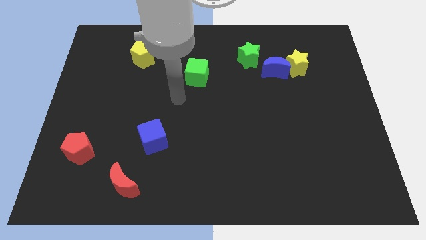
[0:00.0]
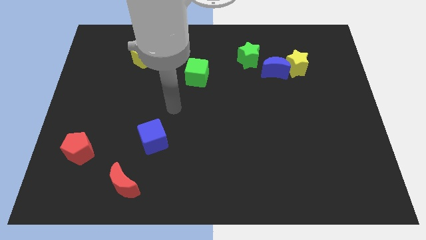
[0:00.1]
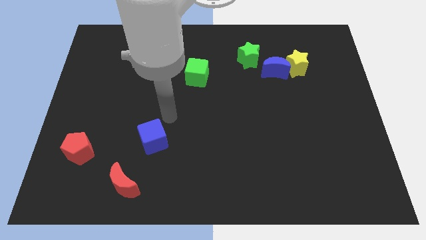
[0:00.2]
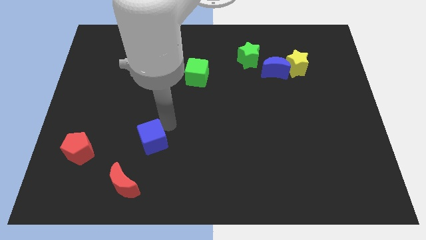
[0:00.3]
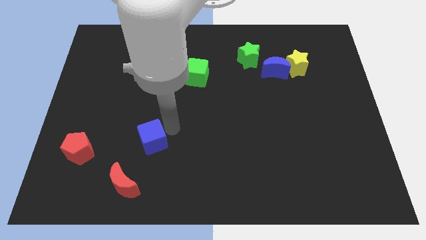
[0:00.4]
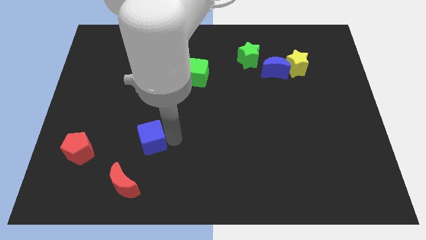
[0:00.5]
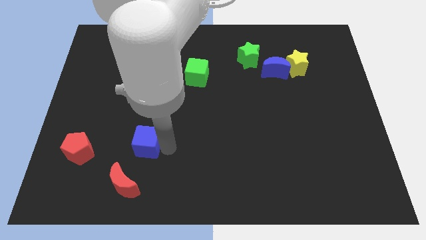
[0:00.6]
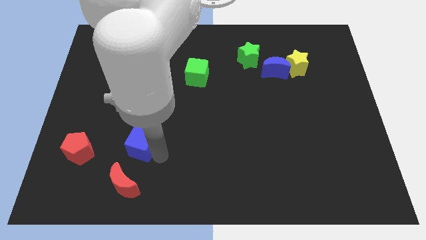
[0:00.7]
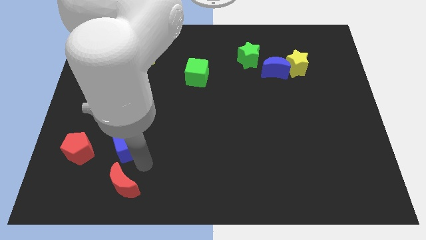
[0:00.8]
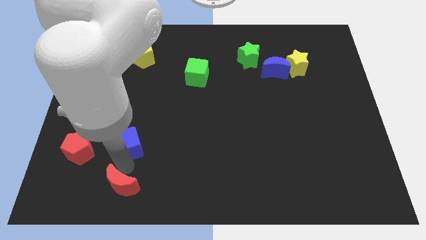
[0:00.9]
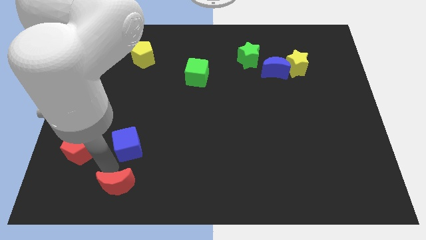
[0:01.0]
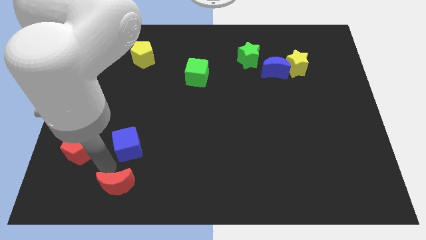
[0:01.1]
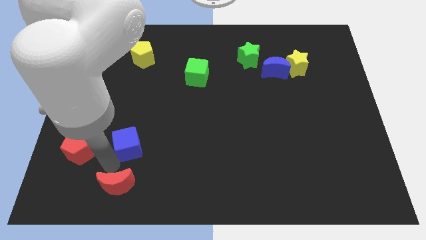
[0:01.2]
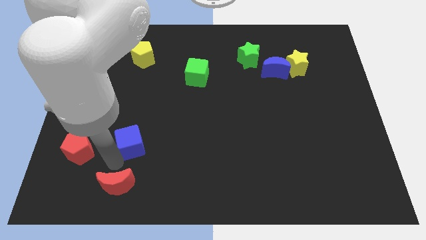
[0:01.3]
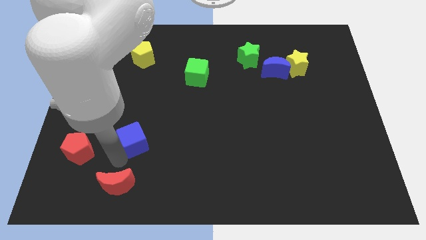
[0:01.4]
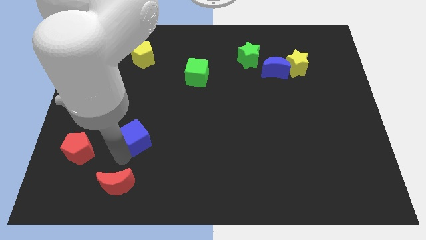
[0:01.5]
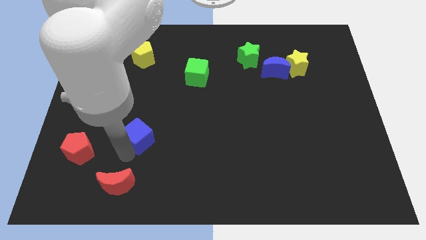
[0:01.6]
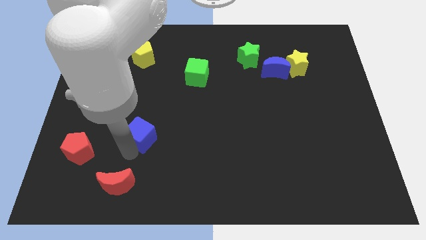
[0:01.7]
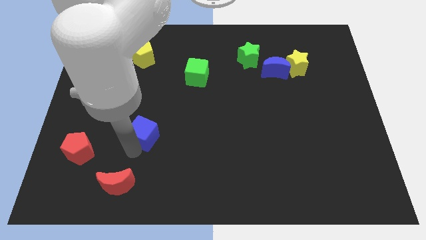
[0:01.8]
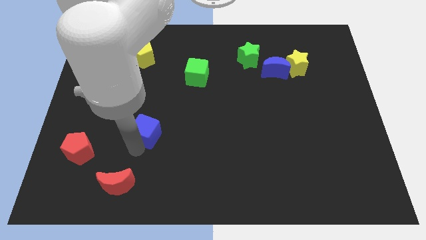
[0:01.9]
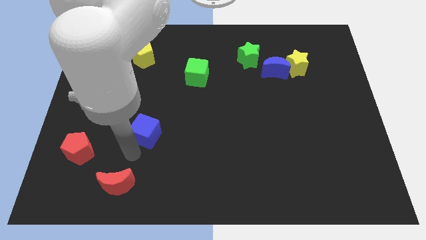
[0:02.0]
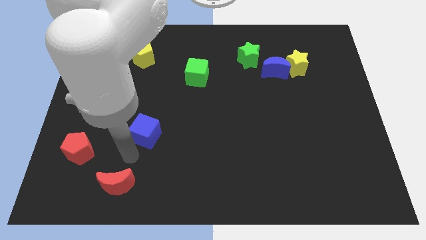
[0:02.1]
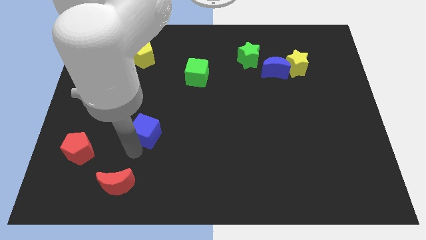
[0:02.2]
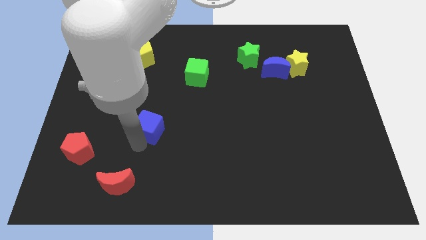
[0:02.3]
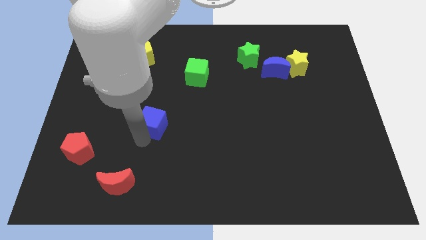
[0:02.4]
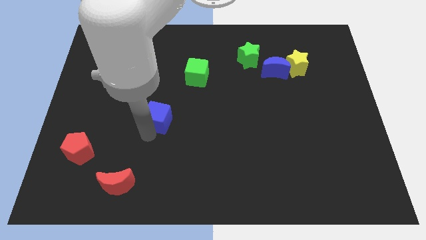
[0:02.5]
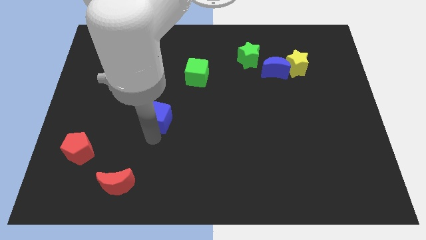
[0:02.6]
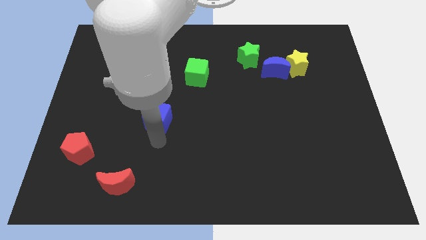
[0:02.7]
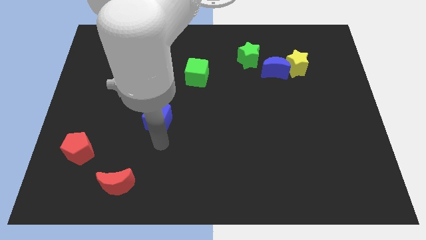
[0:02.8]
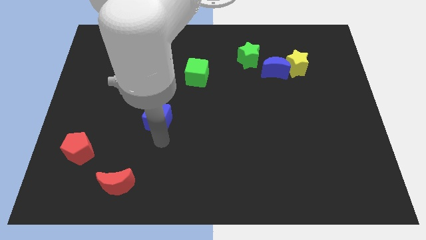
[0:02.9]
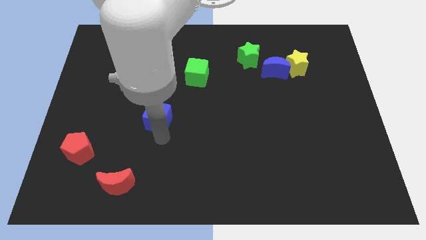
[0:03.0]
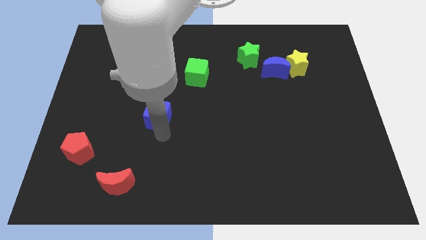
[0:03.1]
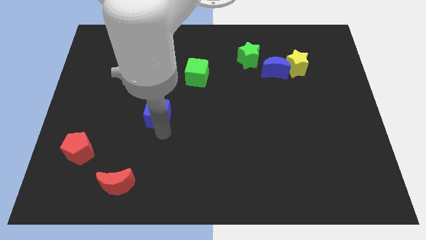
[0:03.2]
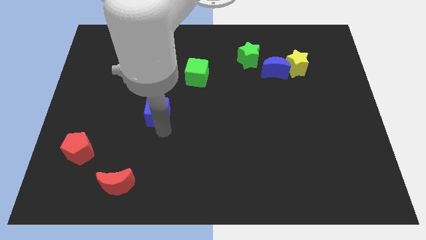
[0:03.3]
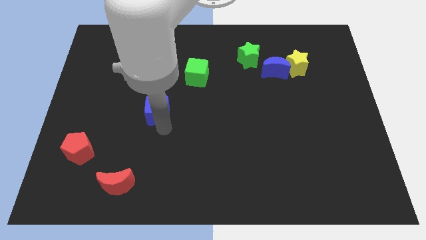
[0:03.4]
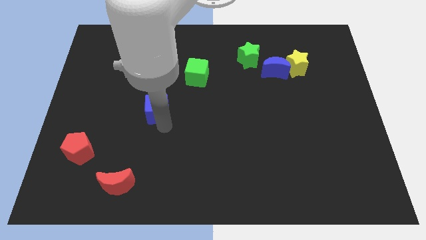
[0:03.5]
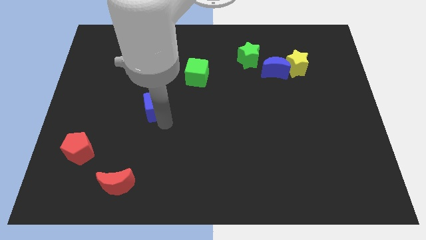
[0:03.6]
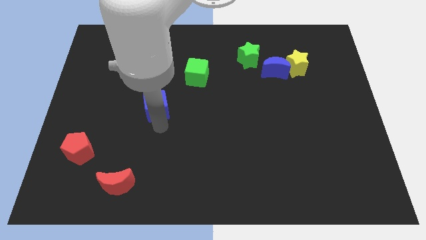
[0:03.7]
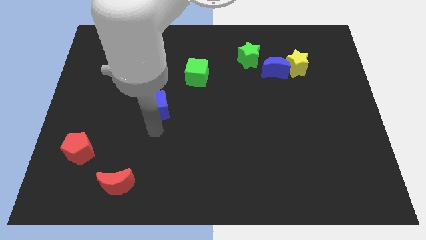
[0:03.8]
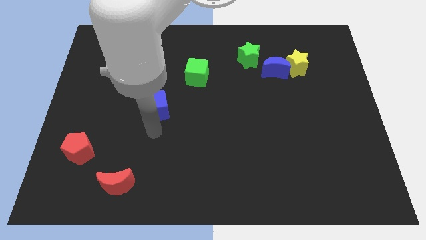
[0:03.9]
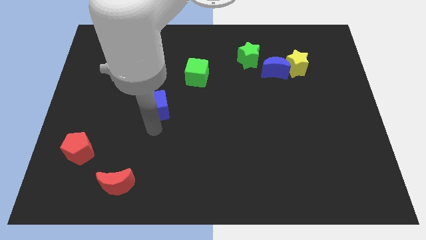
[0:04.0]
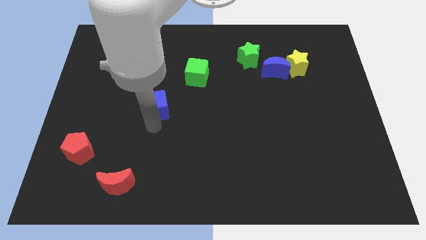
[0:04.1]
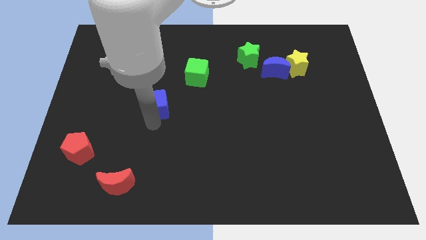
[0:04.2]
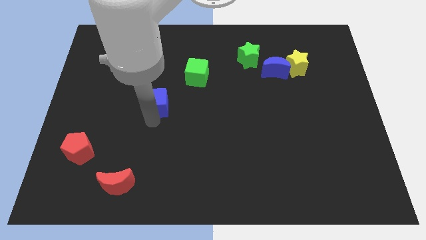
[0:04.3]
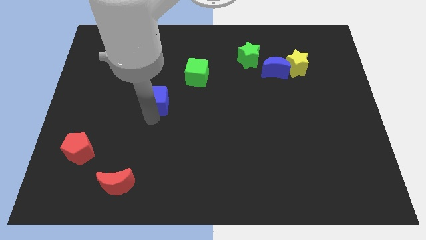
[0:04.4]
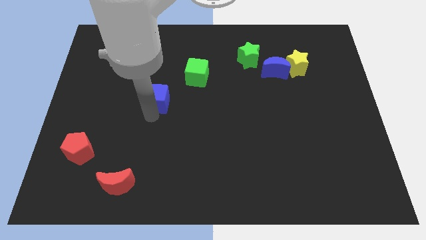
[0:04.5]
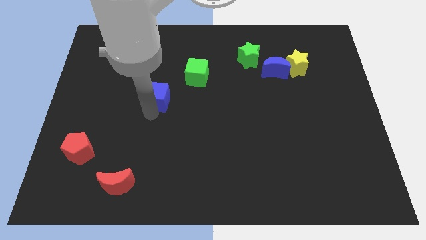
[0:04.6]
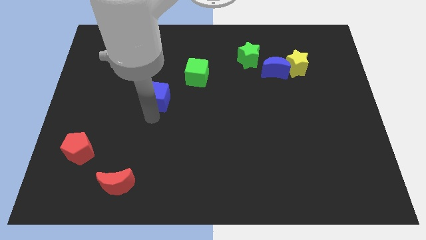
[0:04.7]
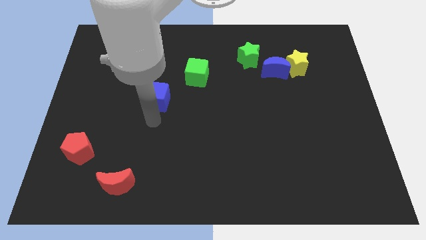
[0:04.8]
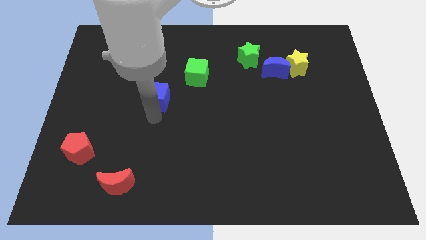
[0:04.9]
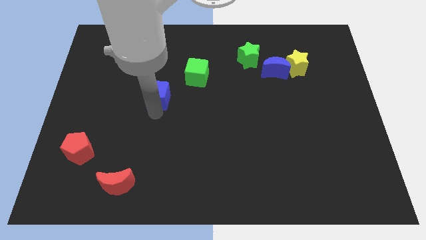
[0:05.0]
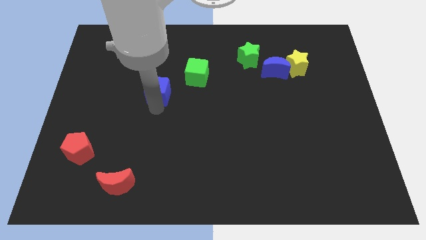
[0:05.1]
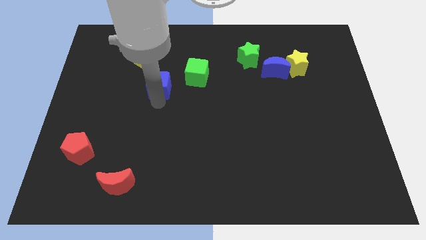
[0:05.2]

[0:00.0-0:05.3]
push the blue cube to the left of the green cube

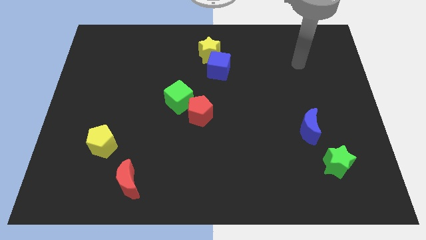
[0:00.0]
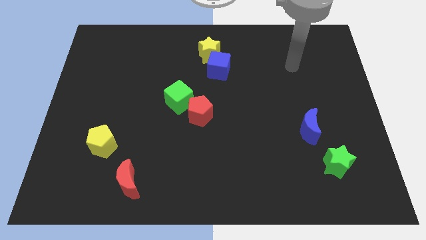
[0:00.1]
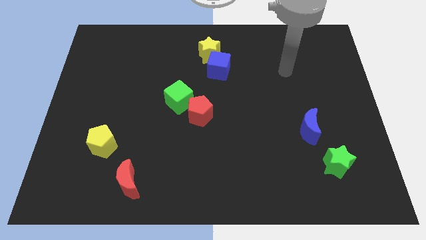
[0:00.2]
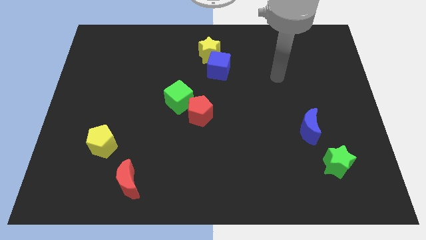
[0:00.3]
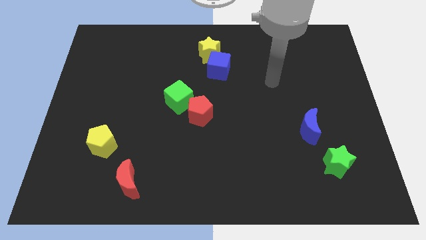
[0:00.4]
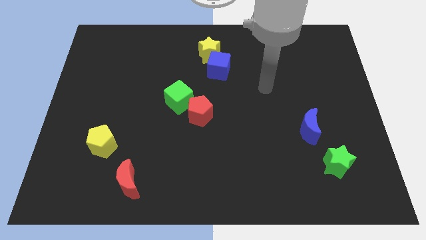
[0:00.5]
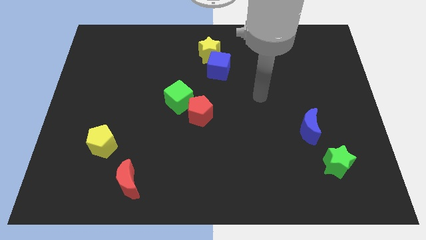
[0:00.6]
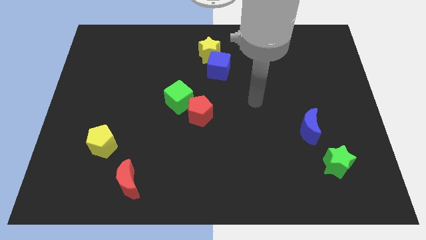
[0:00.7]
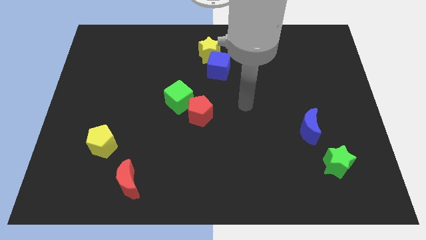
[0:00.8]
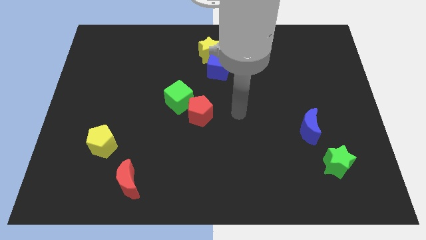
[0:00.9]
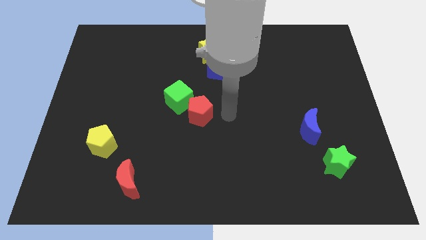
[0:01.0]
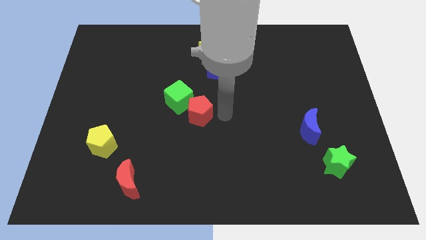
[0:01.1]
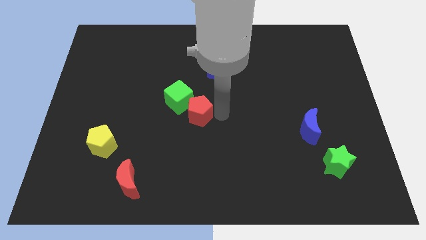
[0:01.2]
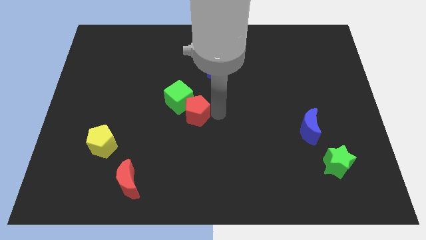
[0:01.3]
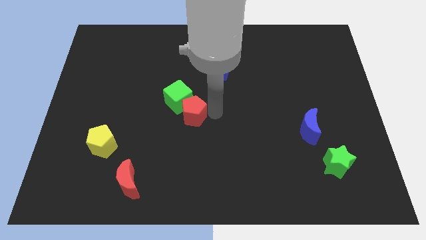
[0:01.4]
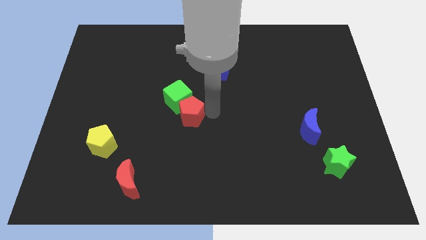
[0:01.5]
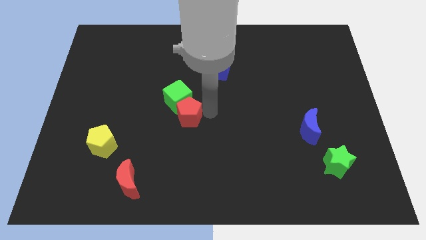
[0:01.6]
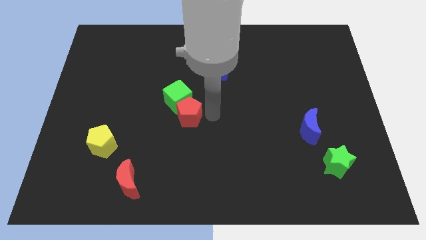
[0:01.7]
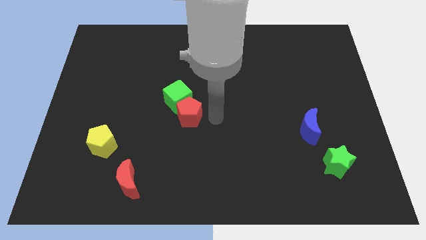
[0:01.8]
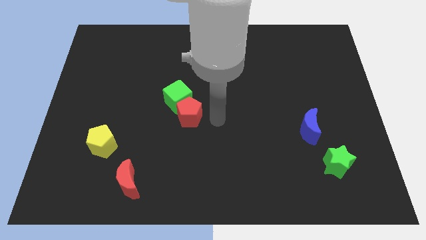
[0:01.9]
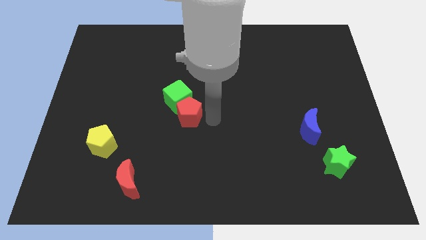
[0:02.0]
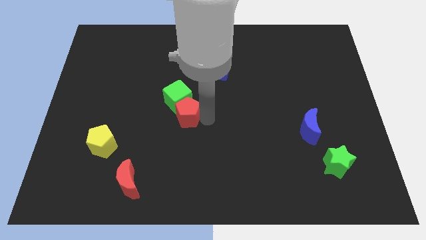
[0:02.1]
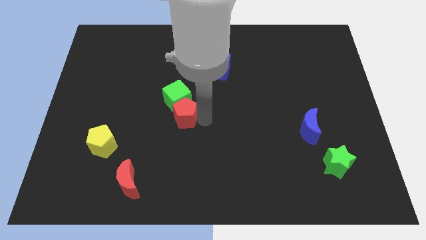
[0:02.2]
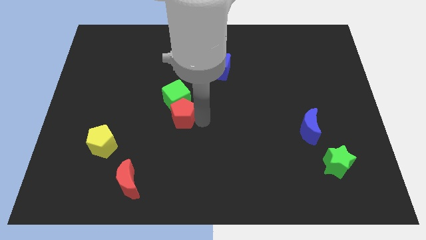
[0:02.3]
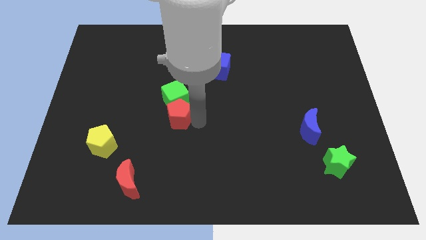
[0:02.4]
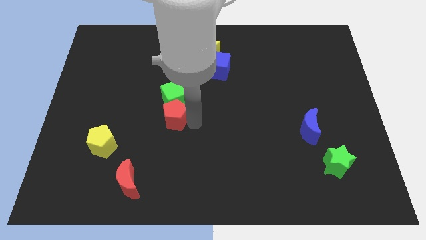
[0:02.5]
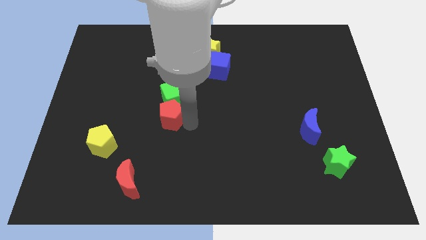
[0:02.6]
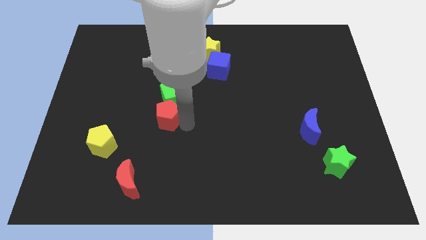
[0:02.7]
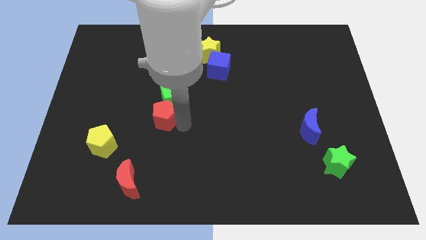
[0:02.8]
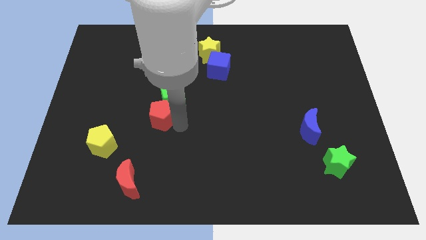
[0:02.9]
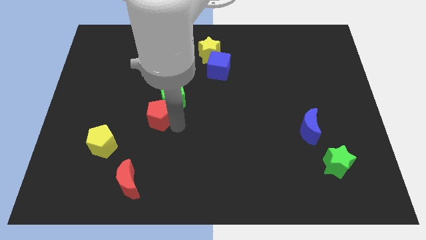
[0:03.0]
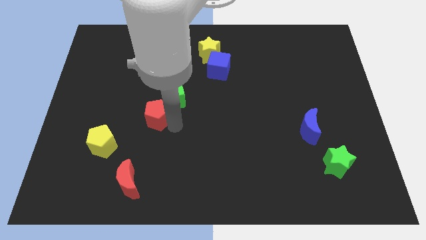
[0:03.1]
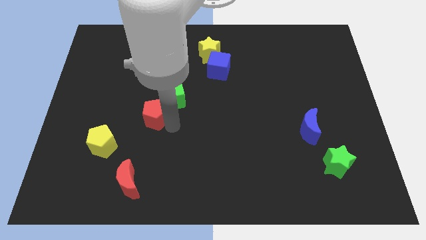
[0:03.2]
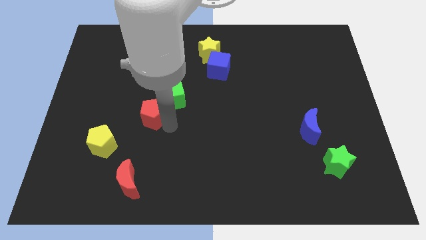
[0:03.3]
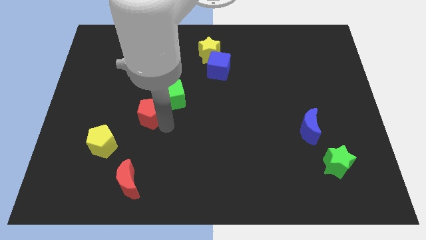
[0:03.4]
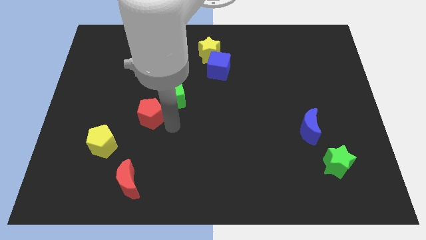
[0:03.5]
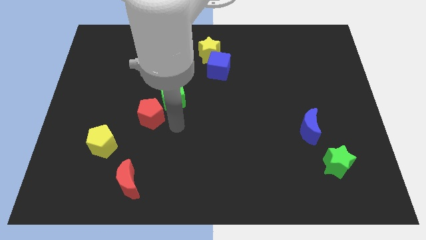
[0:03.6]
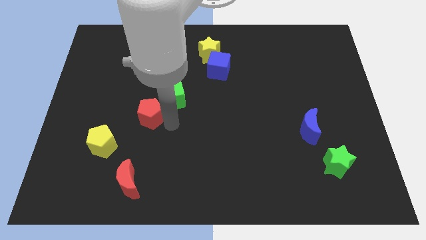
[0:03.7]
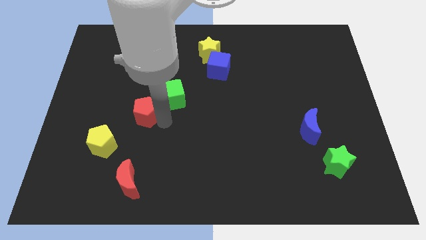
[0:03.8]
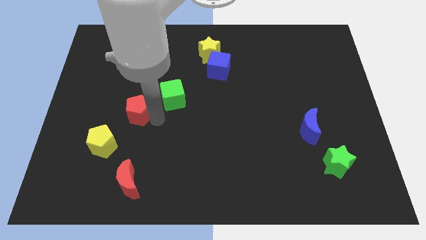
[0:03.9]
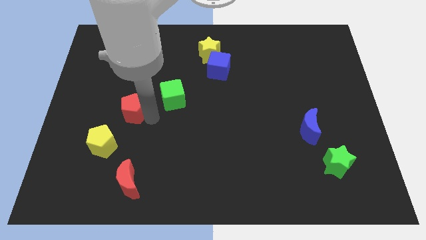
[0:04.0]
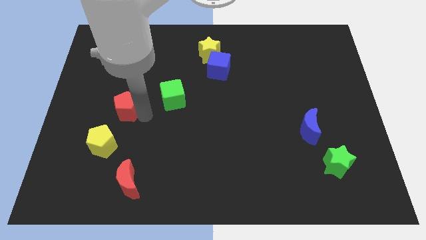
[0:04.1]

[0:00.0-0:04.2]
slide the red pentagon to the top side of the yellow pentagon
